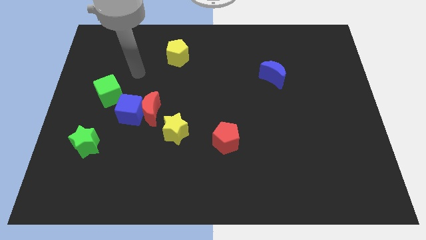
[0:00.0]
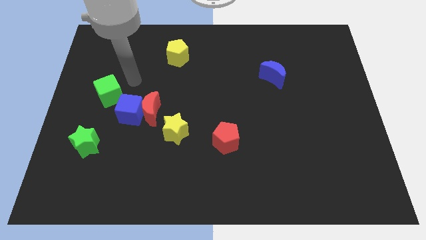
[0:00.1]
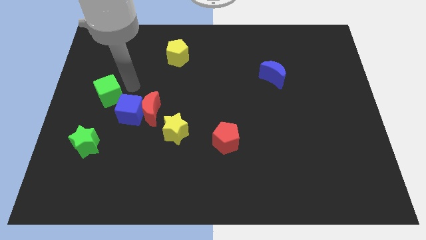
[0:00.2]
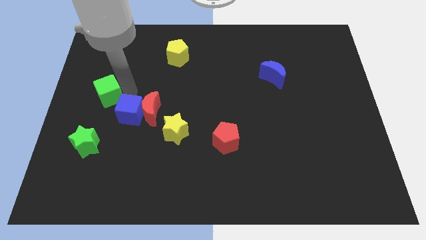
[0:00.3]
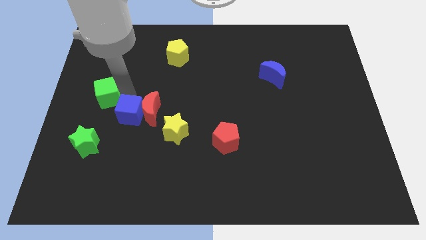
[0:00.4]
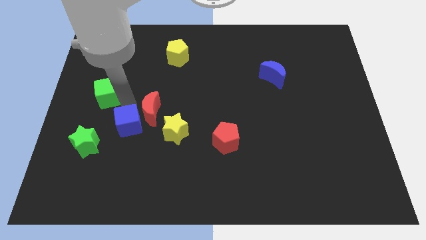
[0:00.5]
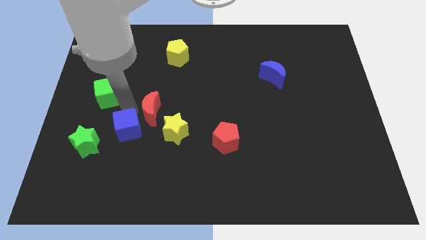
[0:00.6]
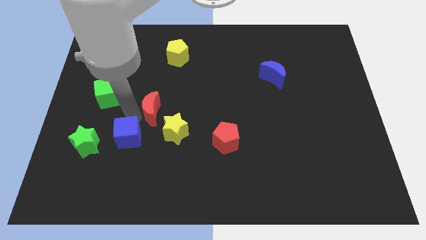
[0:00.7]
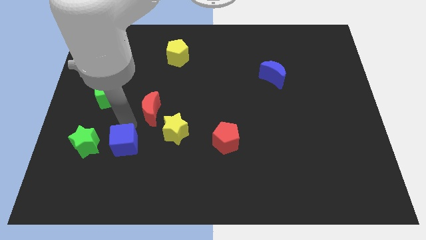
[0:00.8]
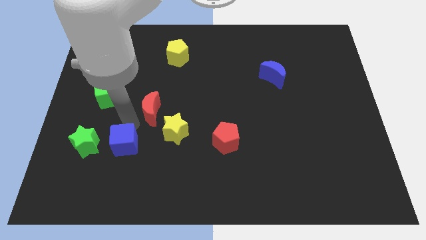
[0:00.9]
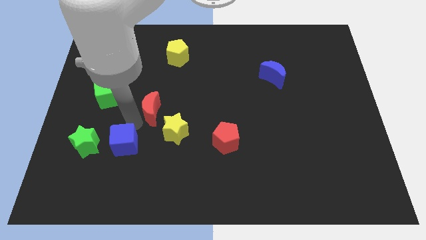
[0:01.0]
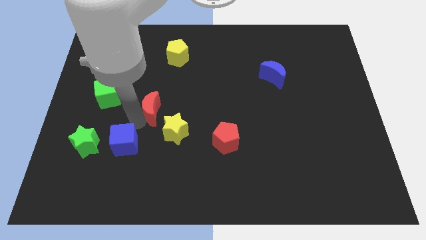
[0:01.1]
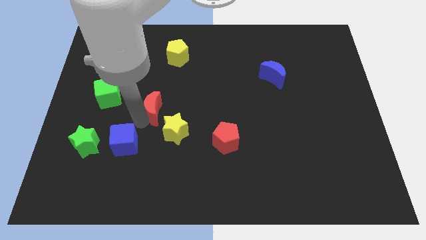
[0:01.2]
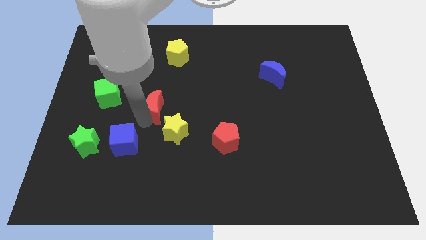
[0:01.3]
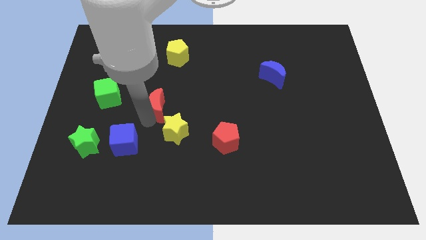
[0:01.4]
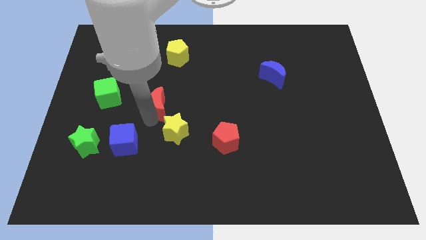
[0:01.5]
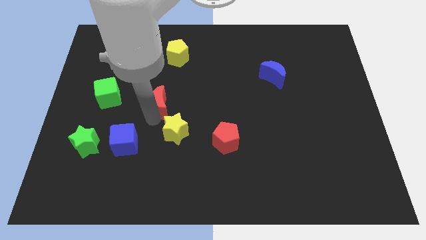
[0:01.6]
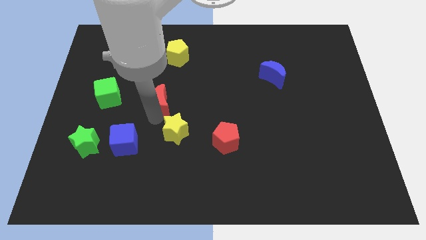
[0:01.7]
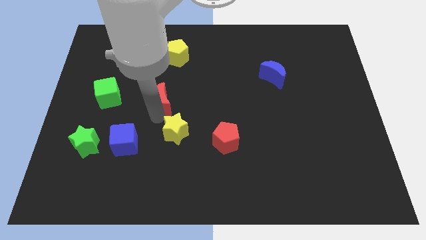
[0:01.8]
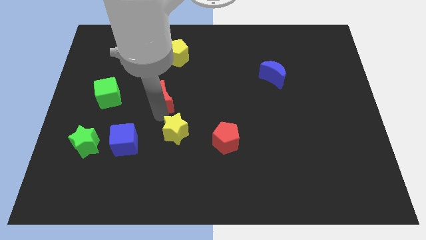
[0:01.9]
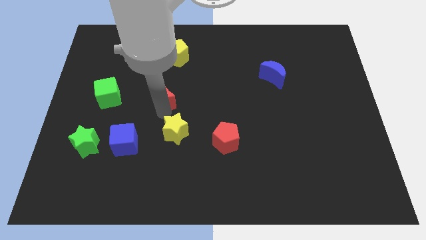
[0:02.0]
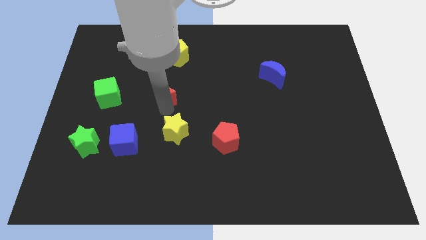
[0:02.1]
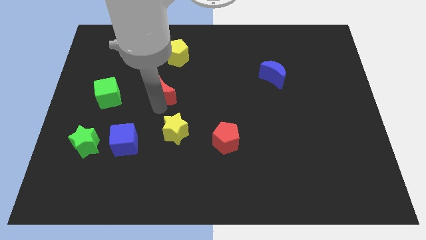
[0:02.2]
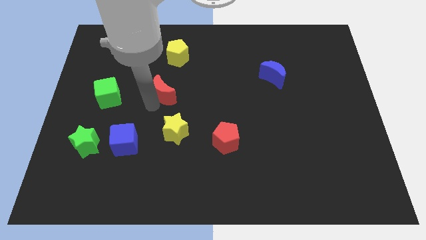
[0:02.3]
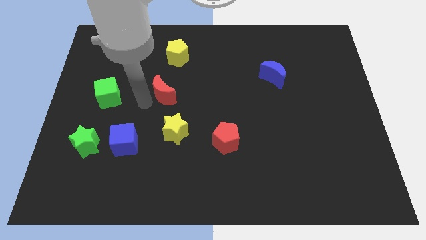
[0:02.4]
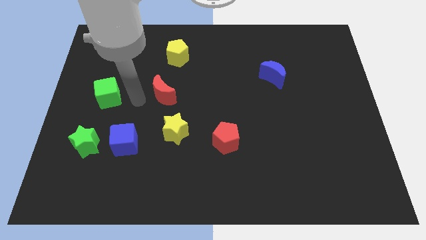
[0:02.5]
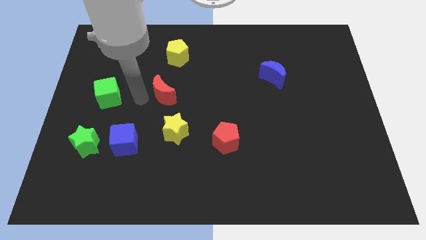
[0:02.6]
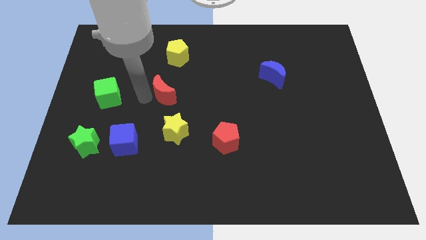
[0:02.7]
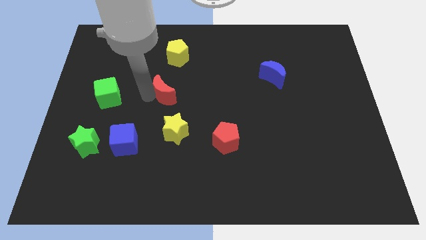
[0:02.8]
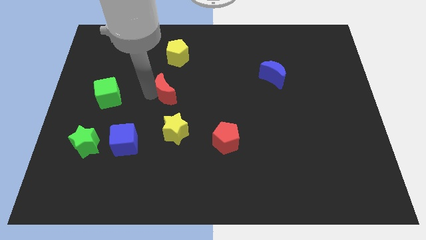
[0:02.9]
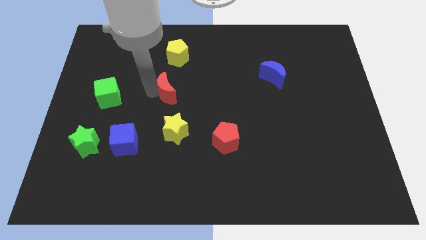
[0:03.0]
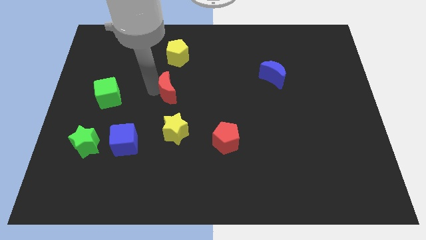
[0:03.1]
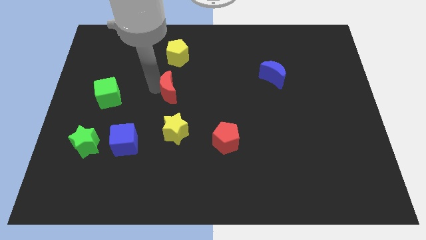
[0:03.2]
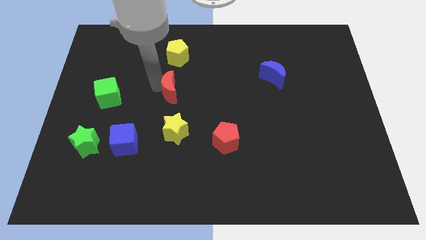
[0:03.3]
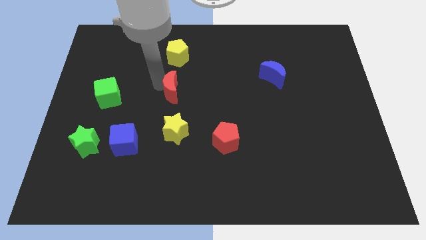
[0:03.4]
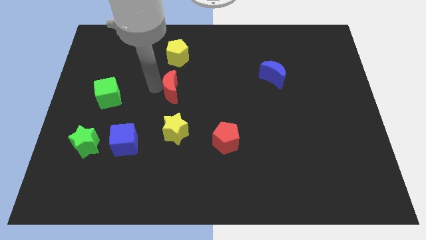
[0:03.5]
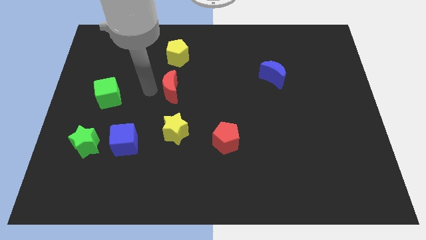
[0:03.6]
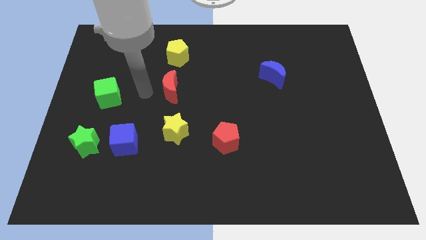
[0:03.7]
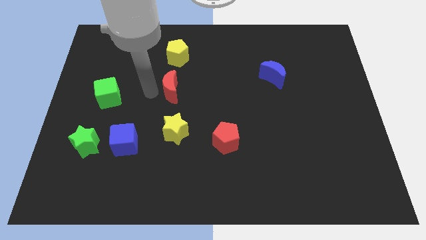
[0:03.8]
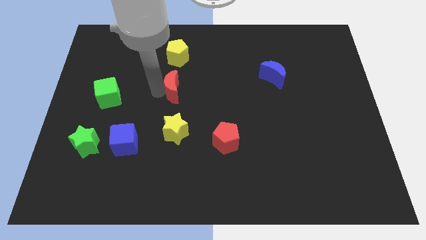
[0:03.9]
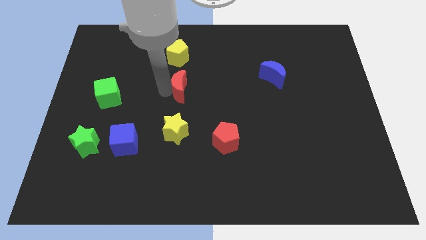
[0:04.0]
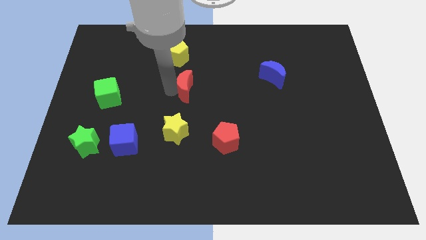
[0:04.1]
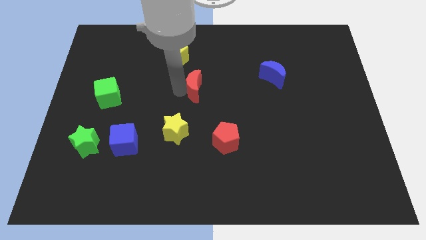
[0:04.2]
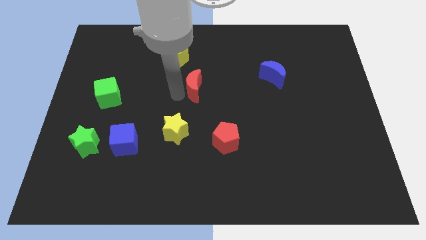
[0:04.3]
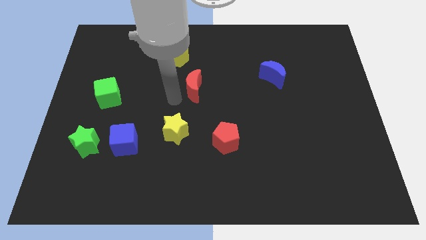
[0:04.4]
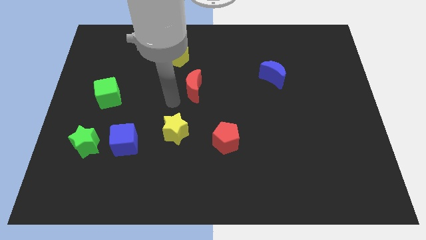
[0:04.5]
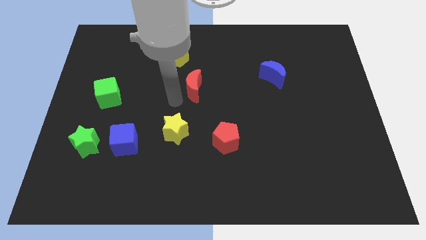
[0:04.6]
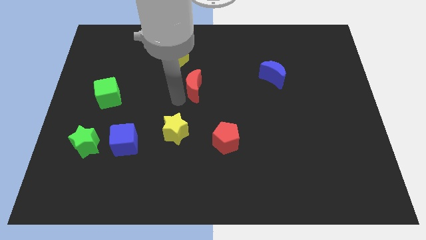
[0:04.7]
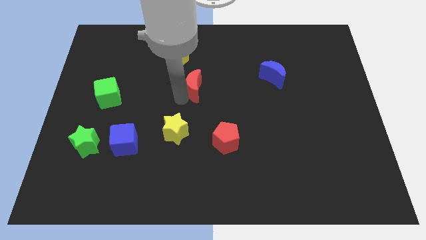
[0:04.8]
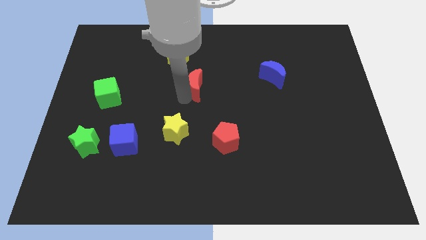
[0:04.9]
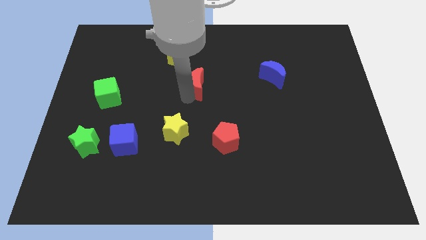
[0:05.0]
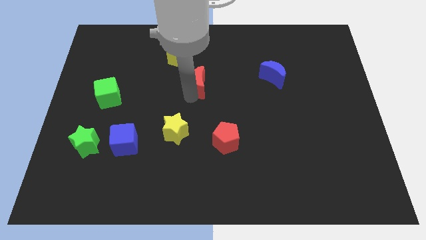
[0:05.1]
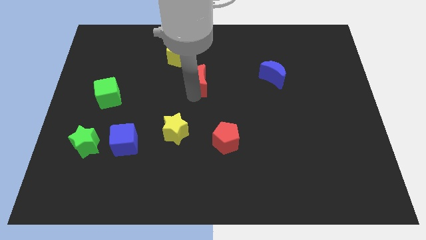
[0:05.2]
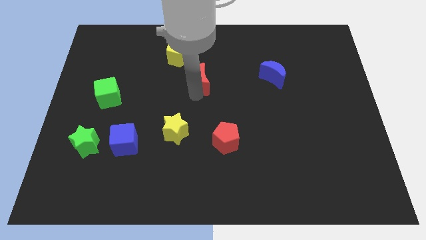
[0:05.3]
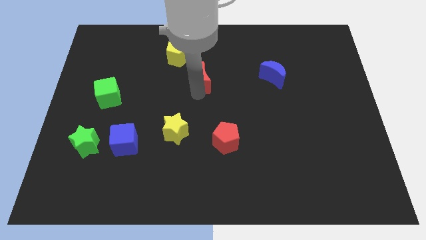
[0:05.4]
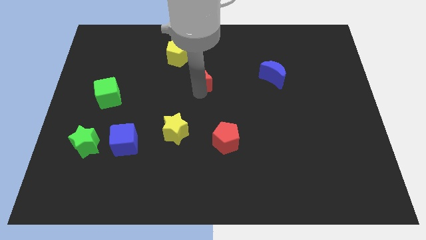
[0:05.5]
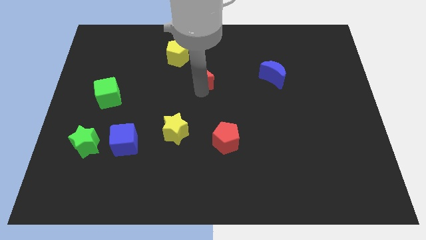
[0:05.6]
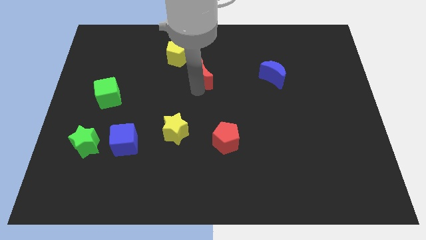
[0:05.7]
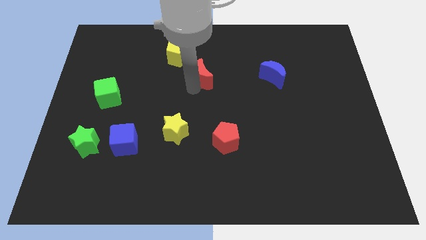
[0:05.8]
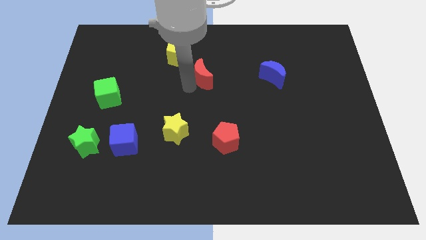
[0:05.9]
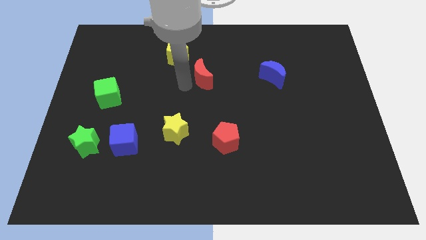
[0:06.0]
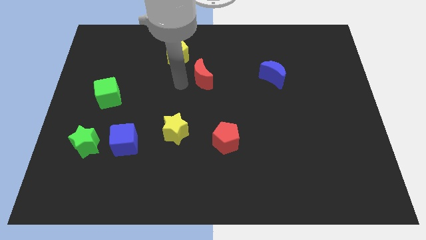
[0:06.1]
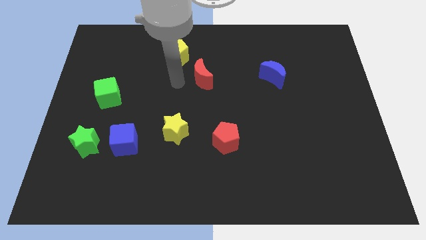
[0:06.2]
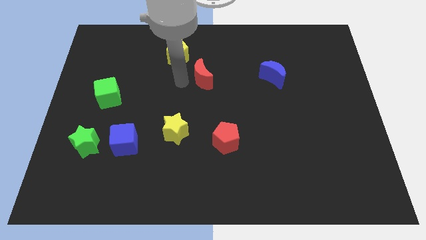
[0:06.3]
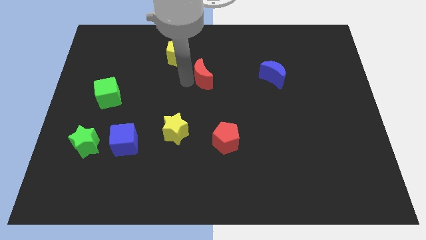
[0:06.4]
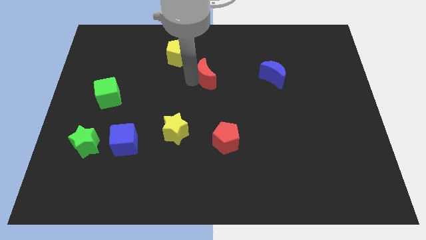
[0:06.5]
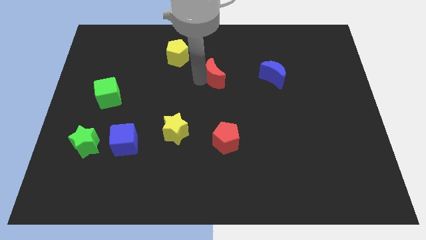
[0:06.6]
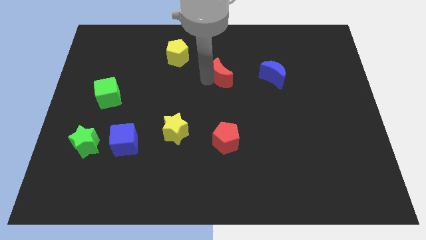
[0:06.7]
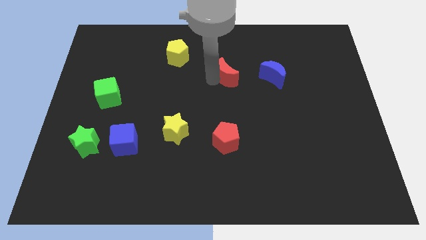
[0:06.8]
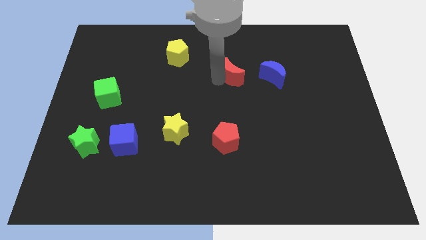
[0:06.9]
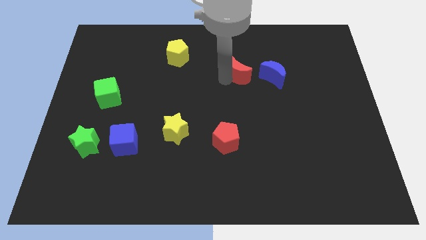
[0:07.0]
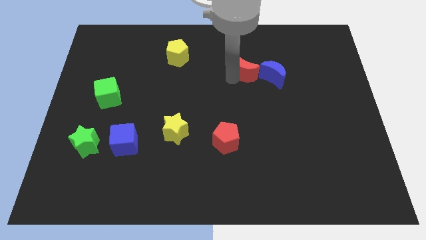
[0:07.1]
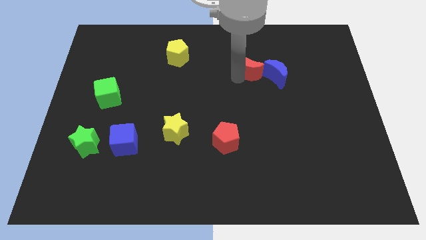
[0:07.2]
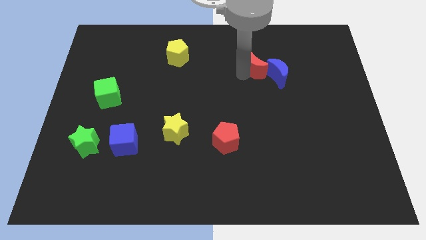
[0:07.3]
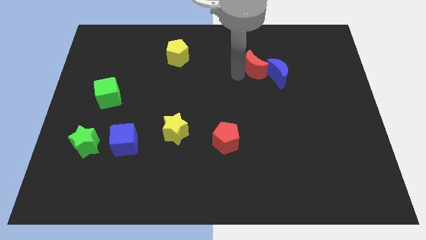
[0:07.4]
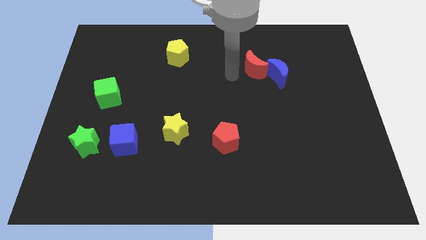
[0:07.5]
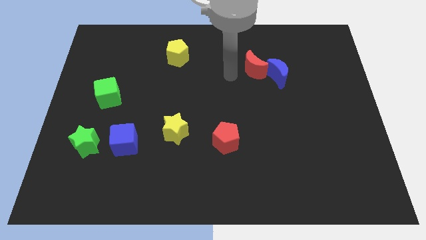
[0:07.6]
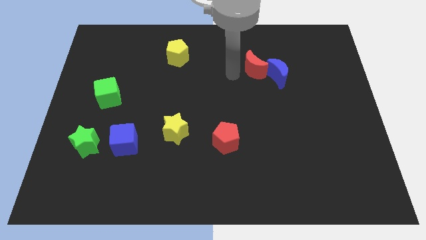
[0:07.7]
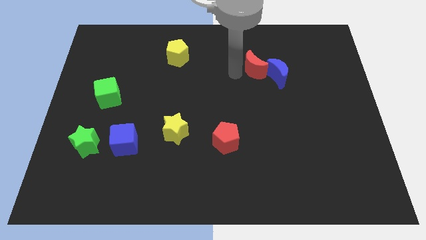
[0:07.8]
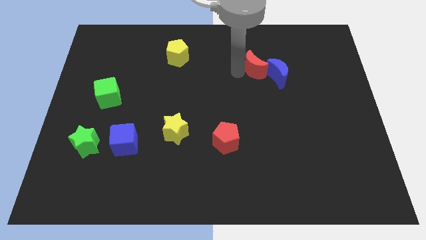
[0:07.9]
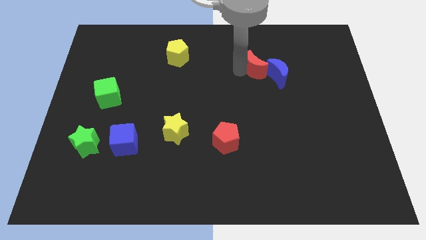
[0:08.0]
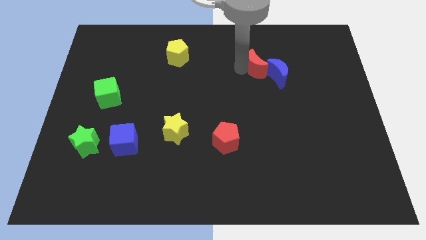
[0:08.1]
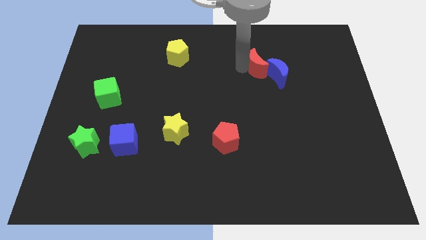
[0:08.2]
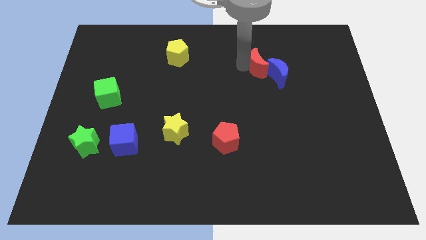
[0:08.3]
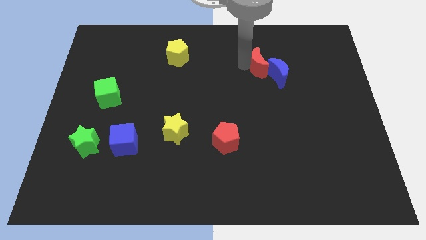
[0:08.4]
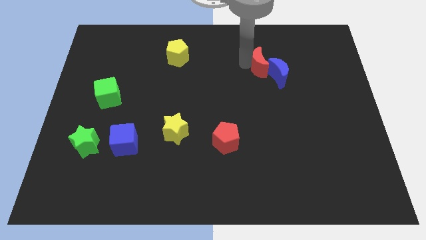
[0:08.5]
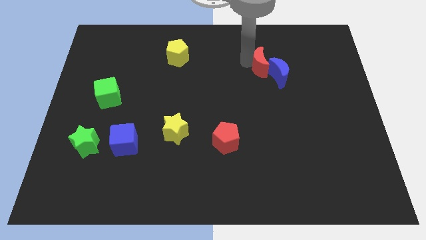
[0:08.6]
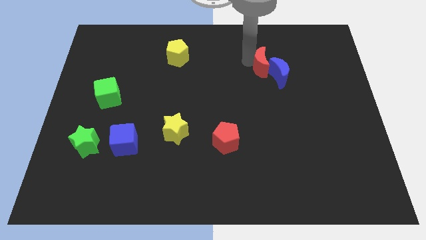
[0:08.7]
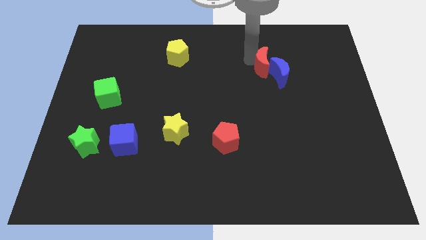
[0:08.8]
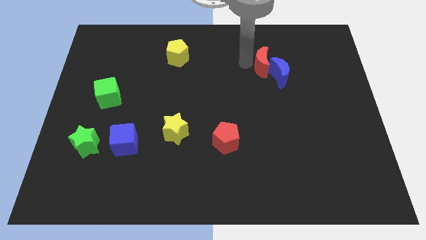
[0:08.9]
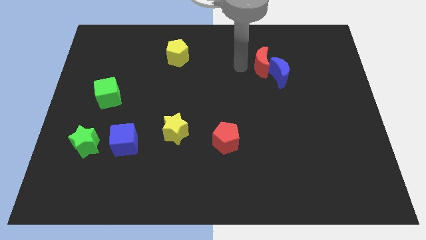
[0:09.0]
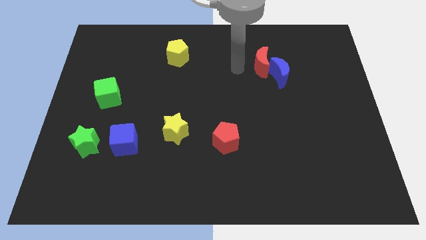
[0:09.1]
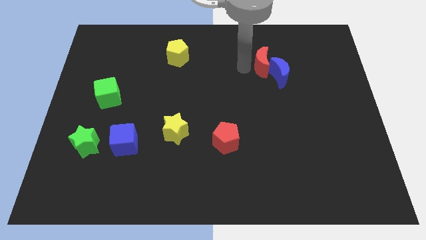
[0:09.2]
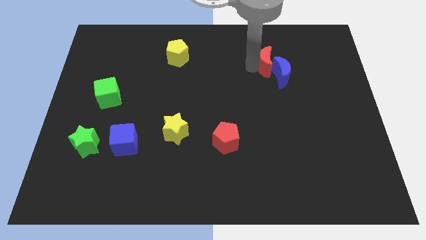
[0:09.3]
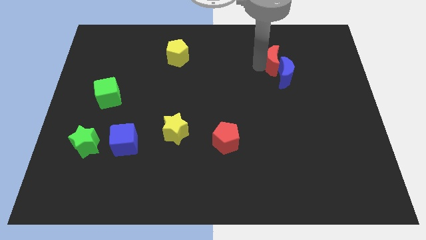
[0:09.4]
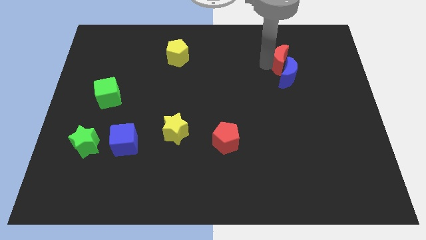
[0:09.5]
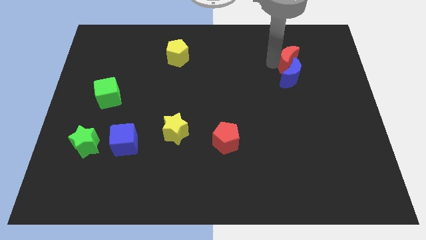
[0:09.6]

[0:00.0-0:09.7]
slide the red moon diagonally up and to the right of the blue moon
